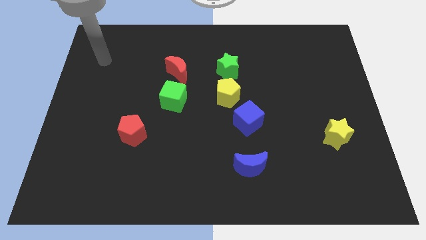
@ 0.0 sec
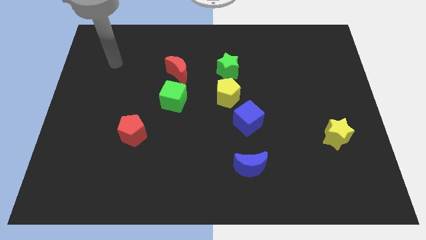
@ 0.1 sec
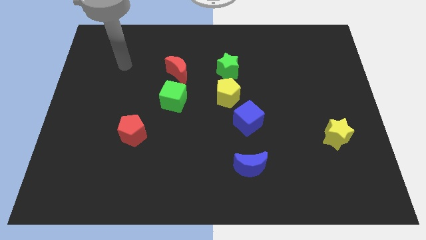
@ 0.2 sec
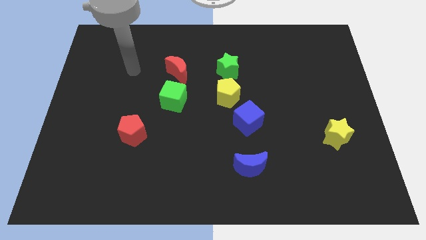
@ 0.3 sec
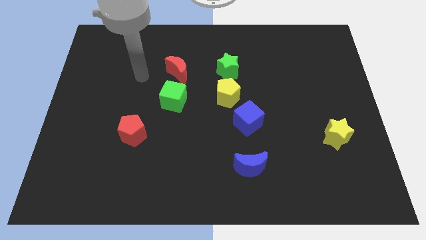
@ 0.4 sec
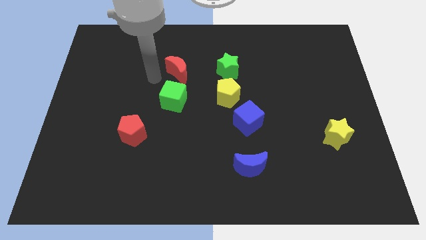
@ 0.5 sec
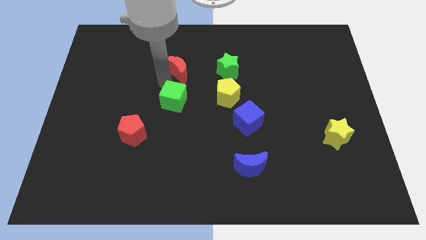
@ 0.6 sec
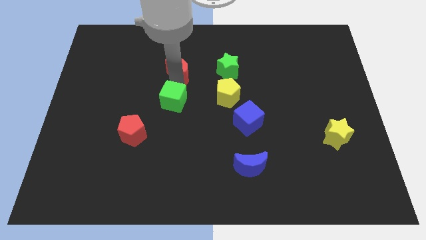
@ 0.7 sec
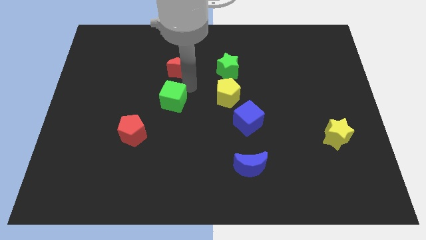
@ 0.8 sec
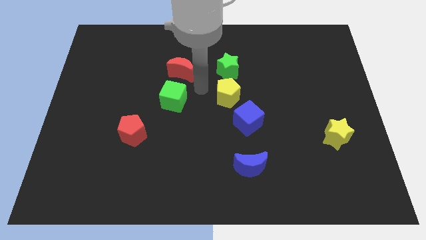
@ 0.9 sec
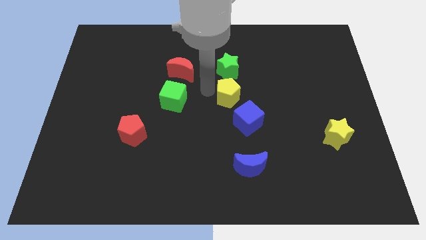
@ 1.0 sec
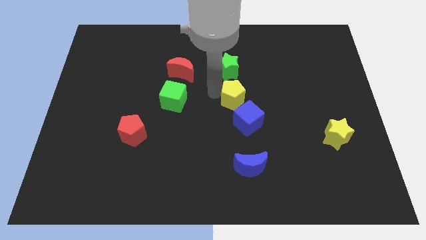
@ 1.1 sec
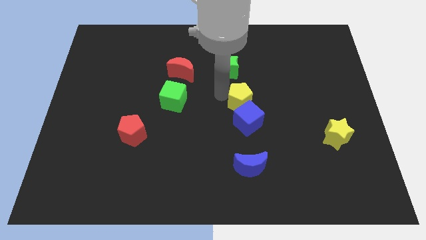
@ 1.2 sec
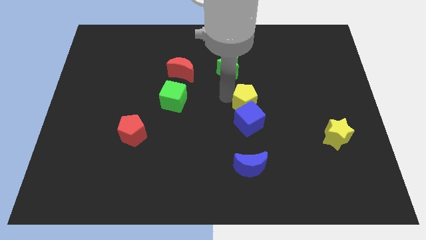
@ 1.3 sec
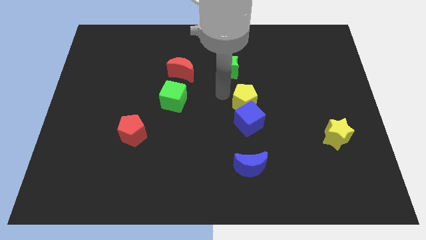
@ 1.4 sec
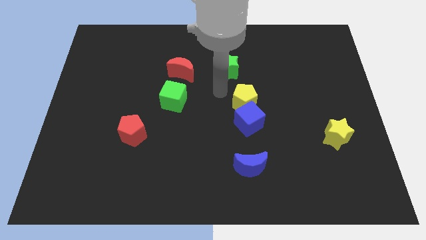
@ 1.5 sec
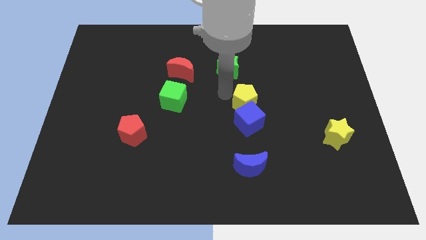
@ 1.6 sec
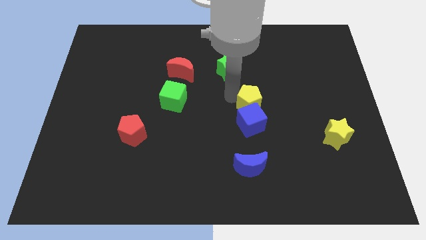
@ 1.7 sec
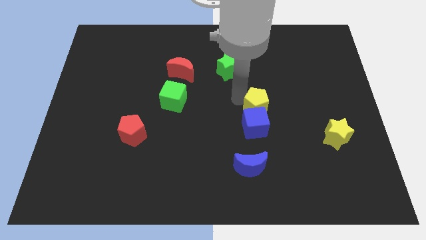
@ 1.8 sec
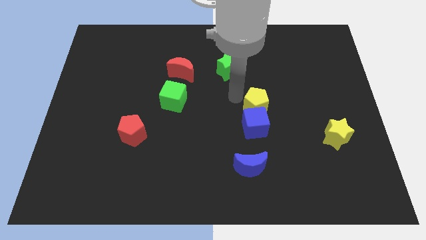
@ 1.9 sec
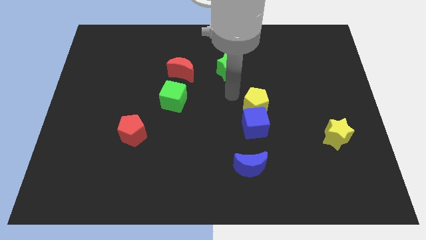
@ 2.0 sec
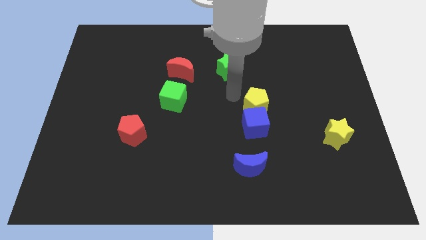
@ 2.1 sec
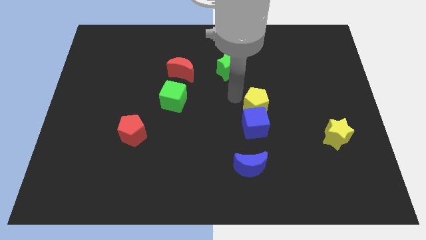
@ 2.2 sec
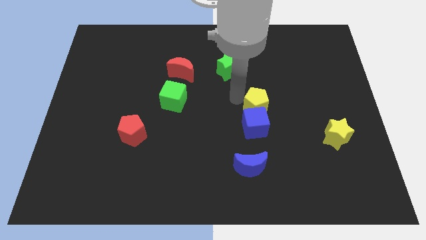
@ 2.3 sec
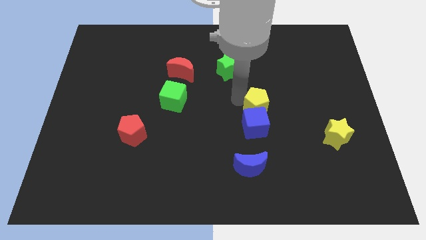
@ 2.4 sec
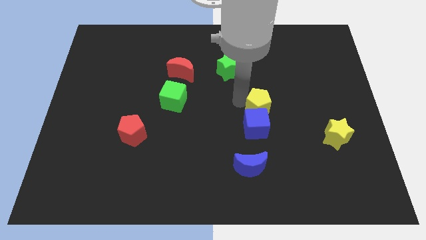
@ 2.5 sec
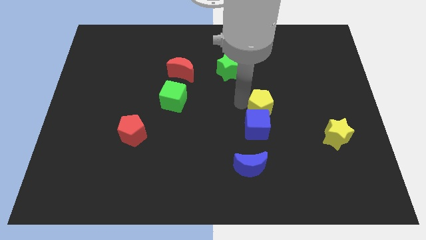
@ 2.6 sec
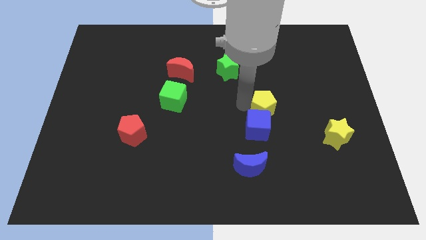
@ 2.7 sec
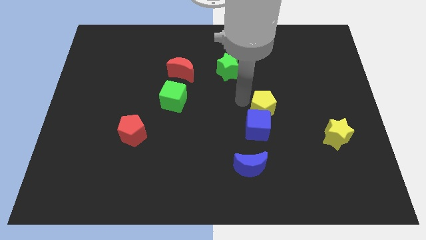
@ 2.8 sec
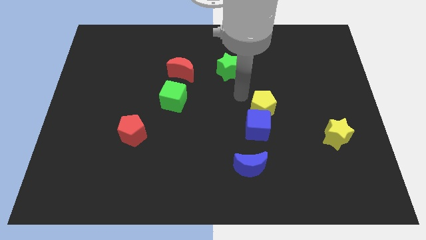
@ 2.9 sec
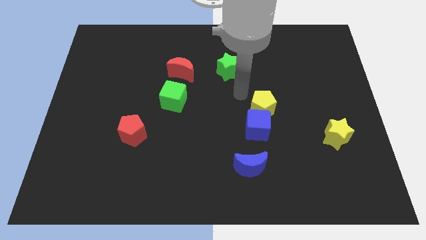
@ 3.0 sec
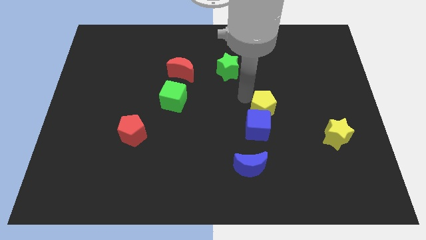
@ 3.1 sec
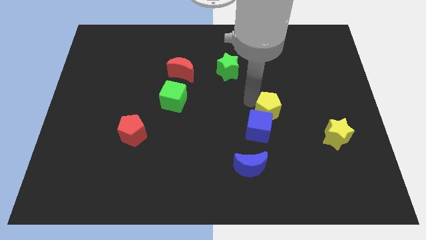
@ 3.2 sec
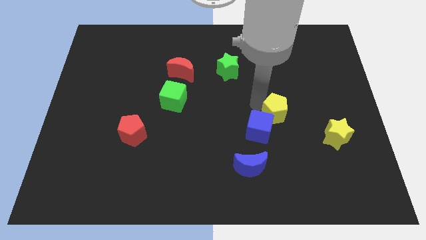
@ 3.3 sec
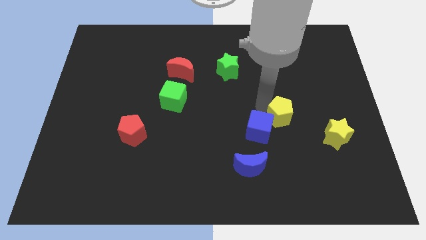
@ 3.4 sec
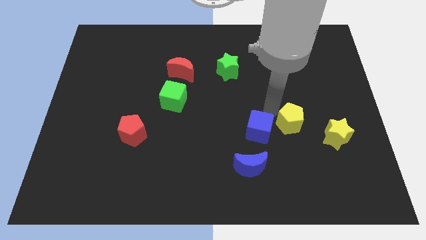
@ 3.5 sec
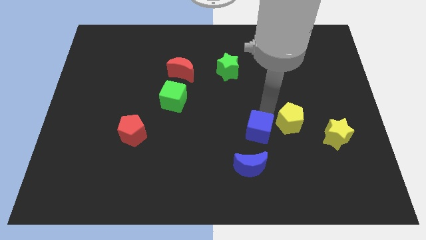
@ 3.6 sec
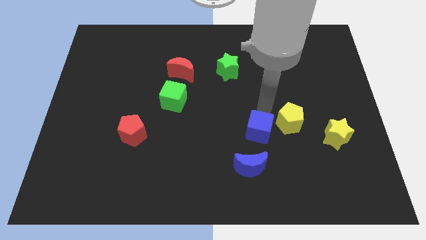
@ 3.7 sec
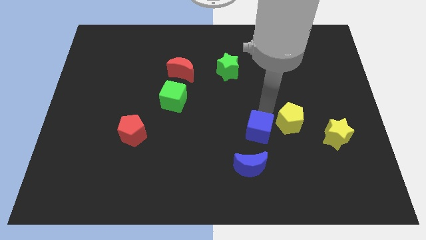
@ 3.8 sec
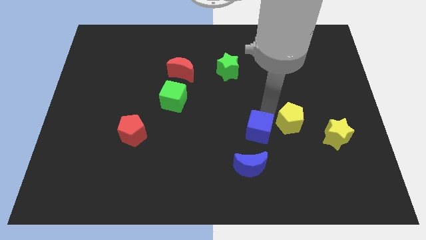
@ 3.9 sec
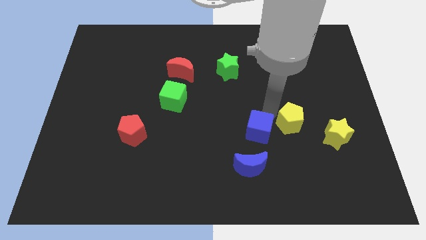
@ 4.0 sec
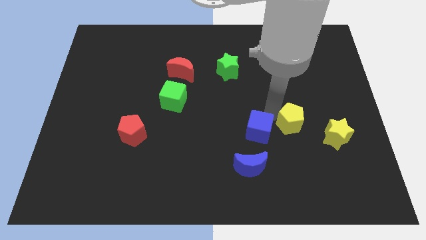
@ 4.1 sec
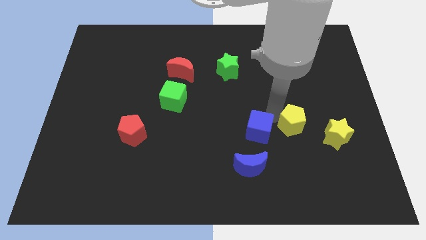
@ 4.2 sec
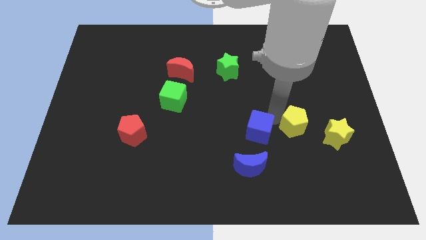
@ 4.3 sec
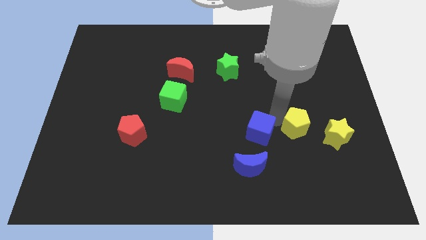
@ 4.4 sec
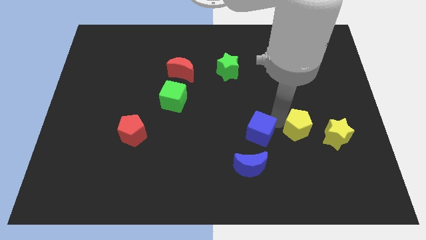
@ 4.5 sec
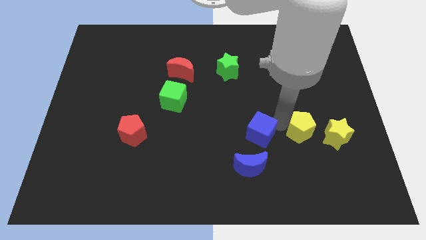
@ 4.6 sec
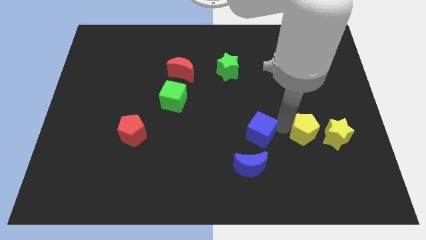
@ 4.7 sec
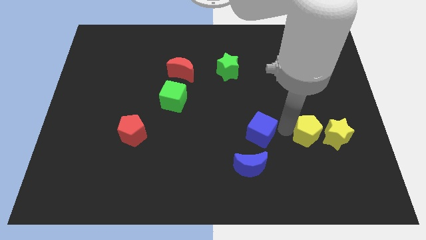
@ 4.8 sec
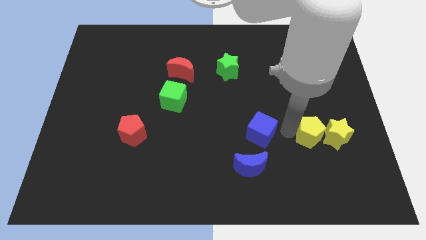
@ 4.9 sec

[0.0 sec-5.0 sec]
move the yellow pentagon to the yellow star

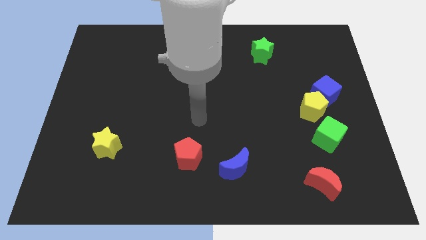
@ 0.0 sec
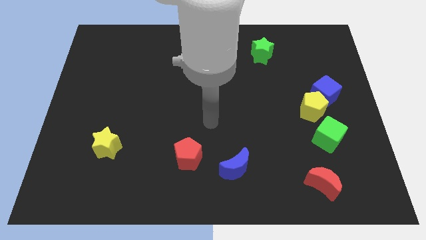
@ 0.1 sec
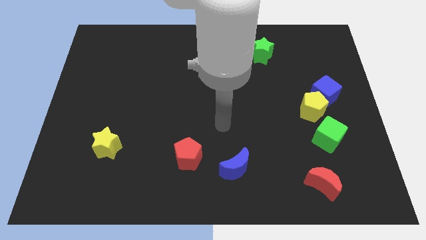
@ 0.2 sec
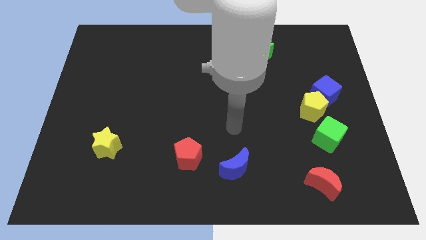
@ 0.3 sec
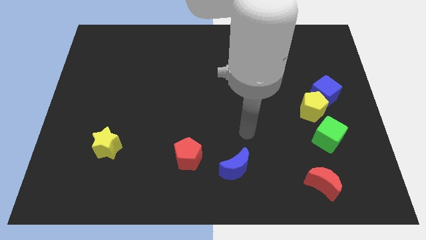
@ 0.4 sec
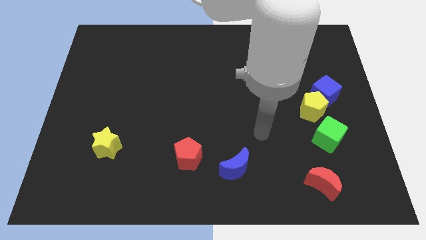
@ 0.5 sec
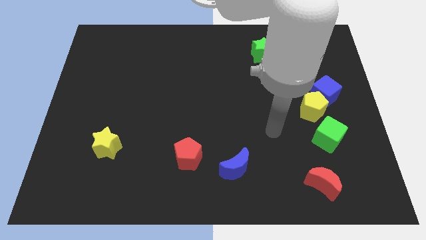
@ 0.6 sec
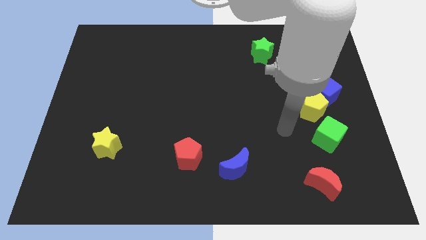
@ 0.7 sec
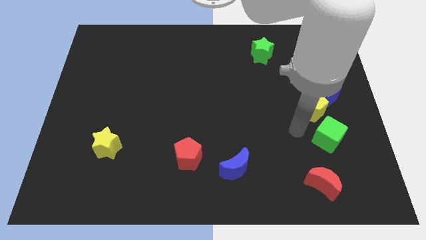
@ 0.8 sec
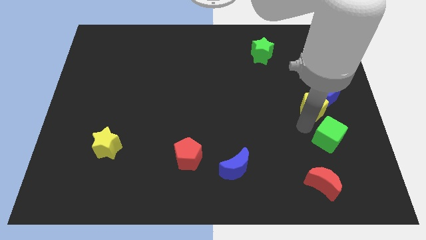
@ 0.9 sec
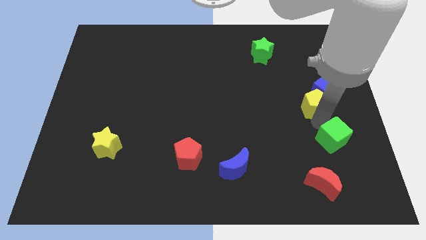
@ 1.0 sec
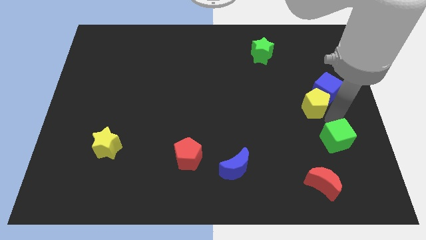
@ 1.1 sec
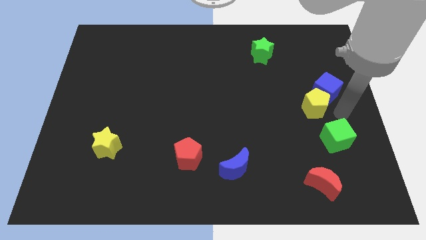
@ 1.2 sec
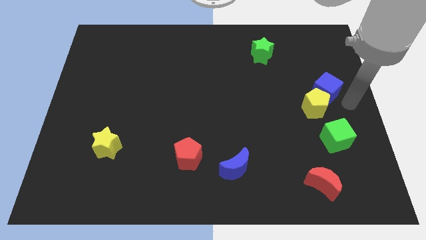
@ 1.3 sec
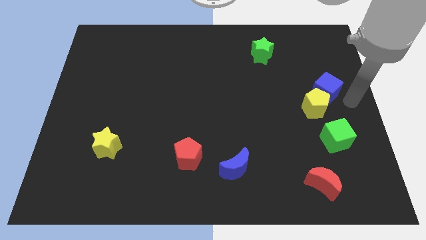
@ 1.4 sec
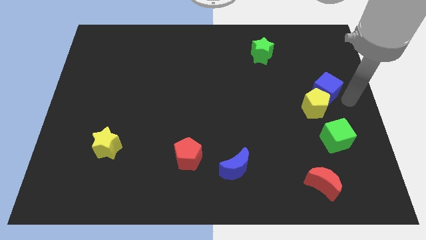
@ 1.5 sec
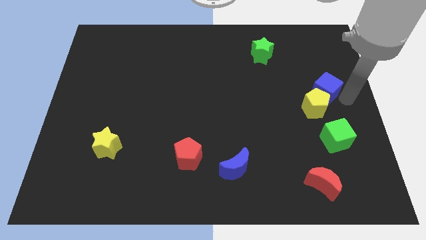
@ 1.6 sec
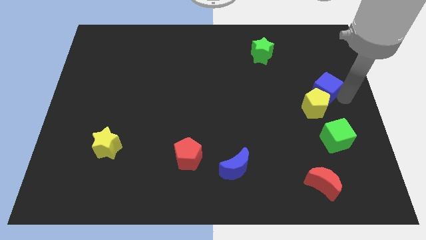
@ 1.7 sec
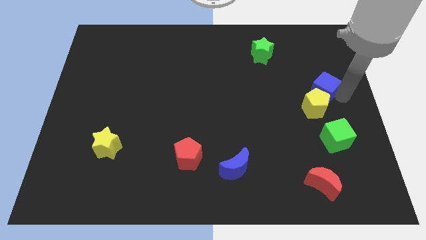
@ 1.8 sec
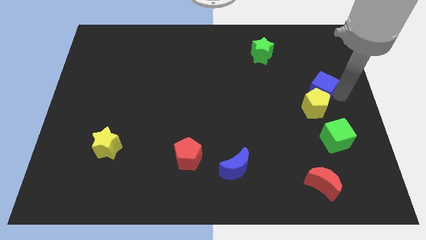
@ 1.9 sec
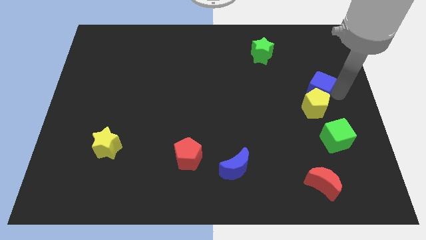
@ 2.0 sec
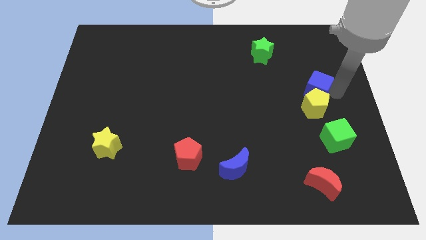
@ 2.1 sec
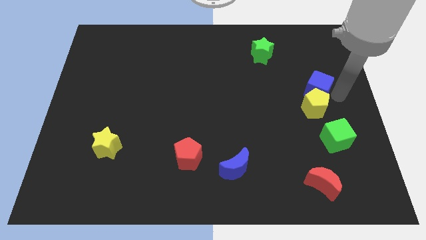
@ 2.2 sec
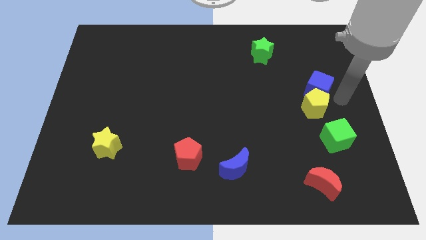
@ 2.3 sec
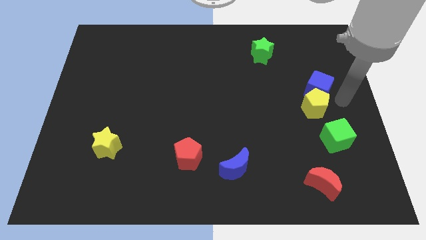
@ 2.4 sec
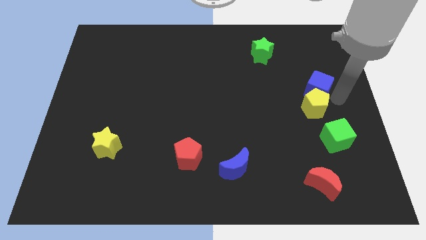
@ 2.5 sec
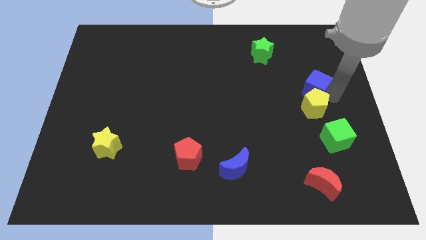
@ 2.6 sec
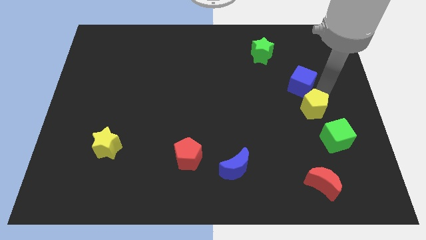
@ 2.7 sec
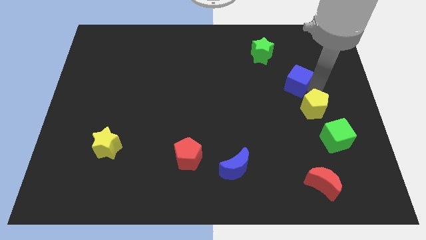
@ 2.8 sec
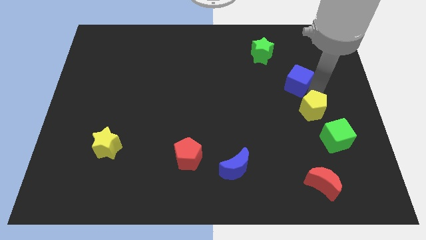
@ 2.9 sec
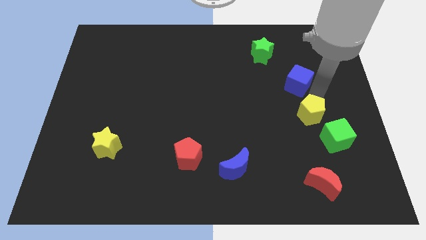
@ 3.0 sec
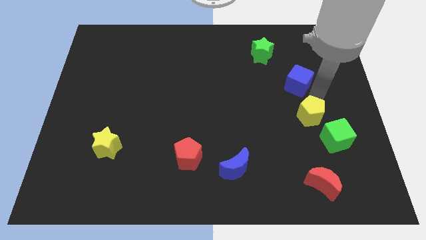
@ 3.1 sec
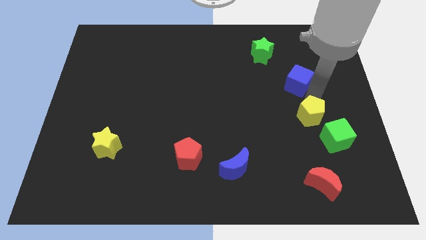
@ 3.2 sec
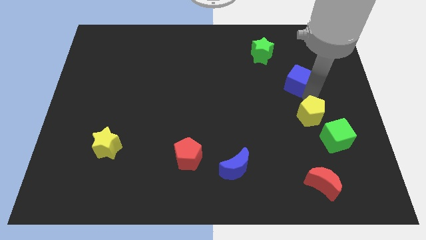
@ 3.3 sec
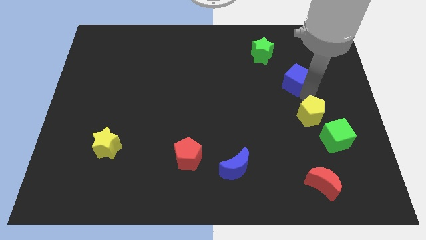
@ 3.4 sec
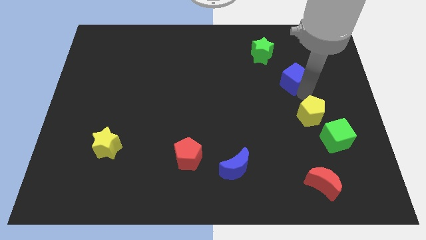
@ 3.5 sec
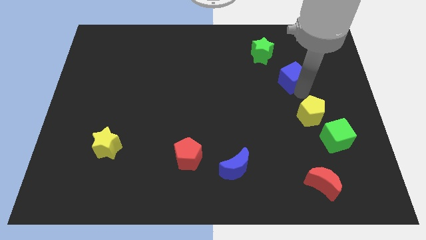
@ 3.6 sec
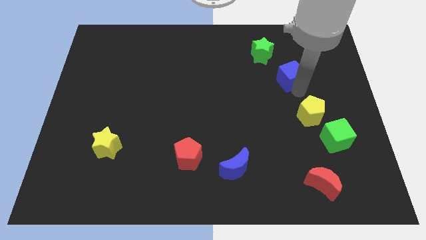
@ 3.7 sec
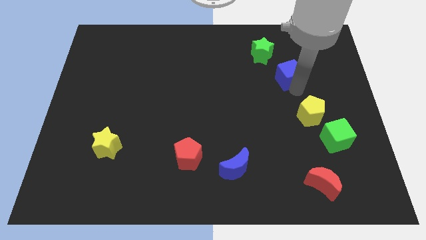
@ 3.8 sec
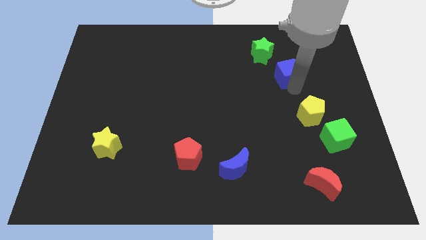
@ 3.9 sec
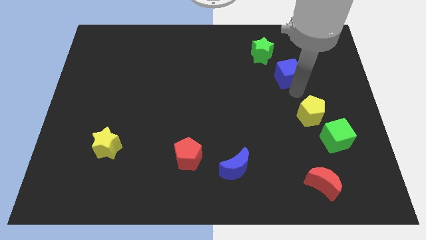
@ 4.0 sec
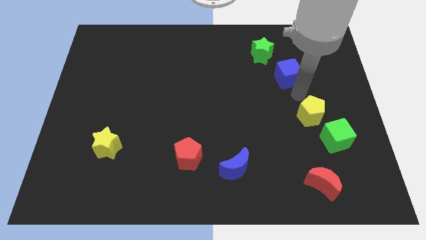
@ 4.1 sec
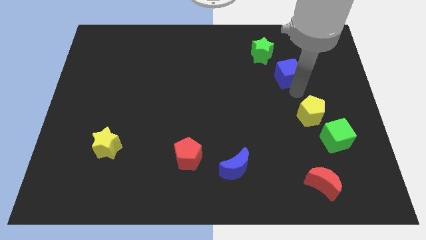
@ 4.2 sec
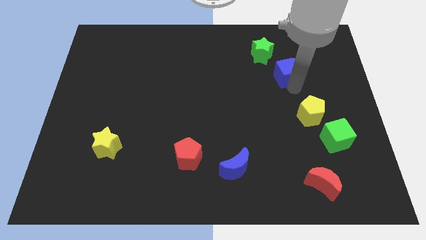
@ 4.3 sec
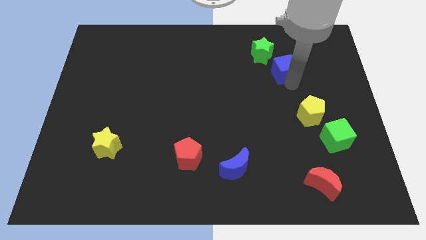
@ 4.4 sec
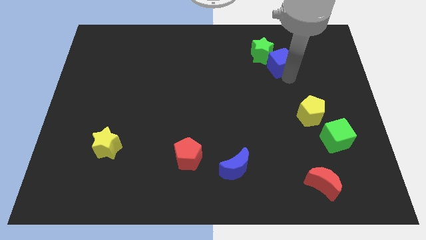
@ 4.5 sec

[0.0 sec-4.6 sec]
move the blue cube close to the green star
